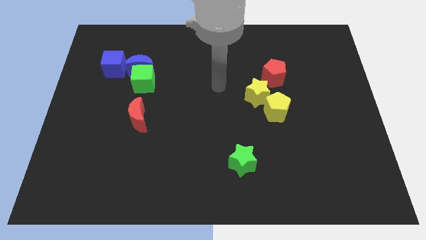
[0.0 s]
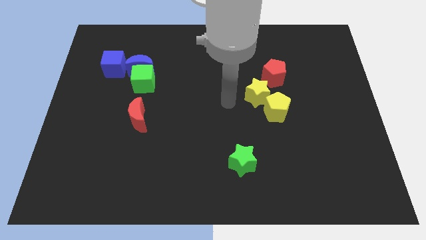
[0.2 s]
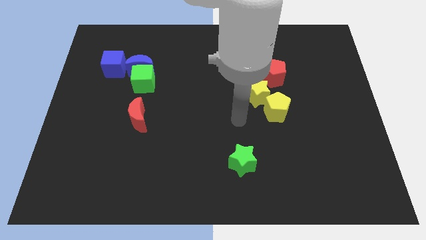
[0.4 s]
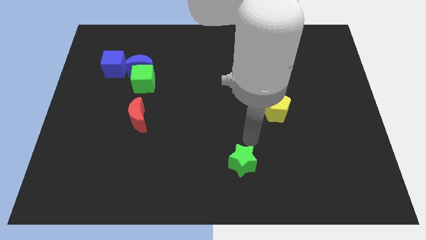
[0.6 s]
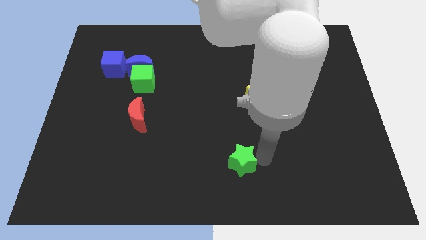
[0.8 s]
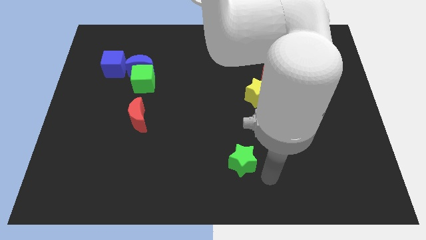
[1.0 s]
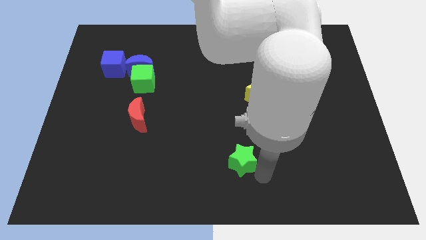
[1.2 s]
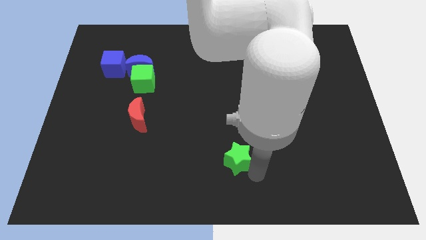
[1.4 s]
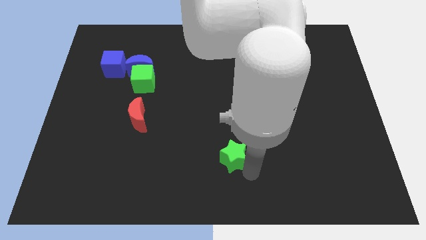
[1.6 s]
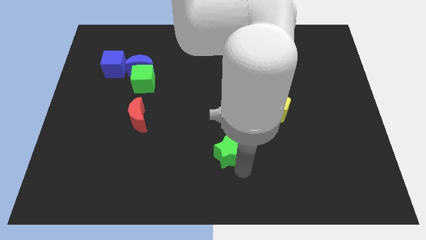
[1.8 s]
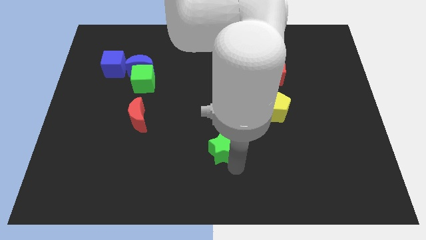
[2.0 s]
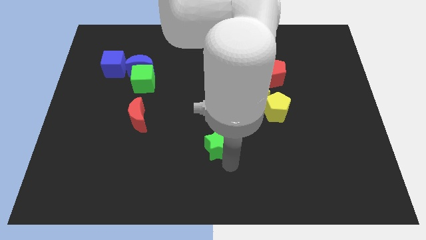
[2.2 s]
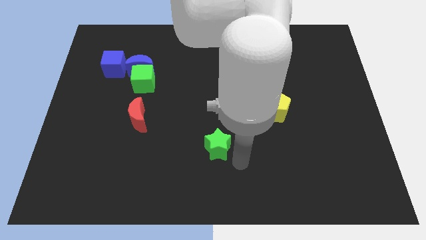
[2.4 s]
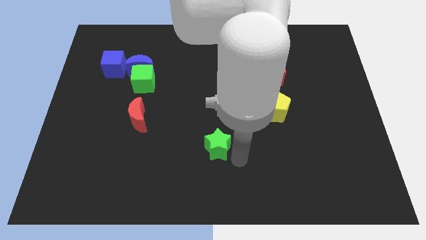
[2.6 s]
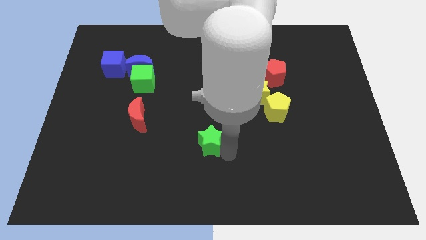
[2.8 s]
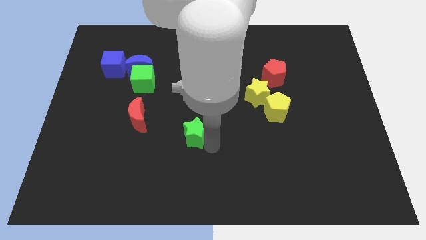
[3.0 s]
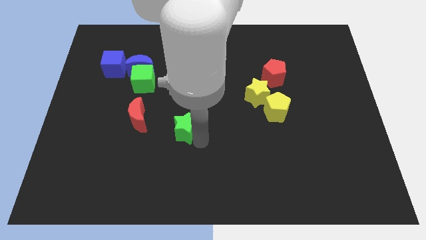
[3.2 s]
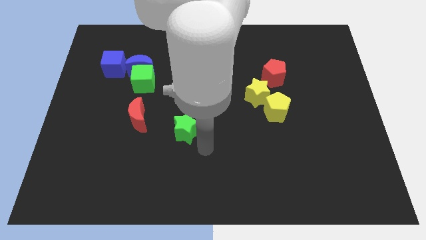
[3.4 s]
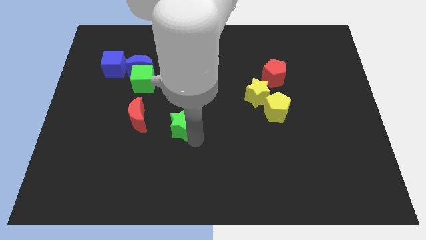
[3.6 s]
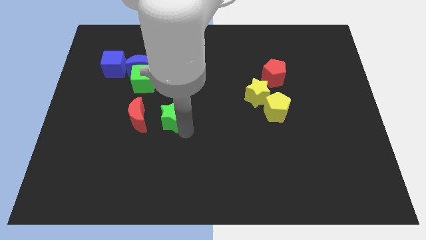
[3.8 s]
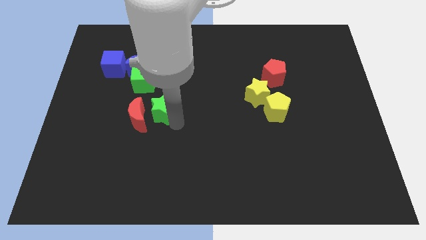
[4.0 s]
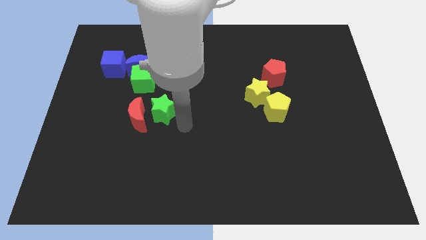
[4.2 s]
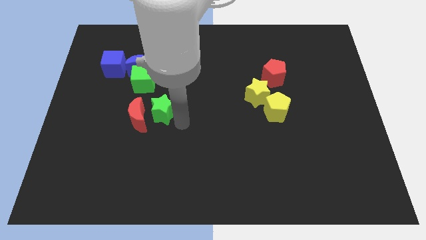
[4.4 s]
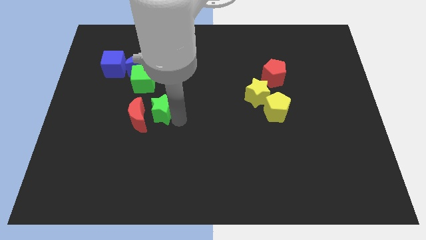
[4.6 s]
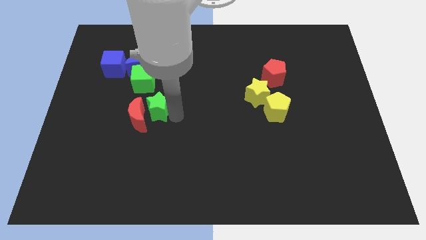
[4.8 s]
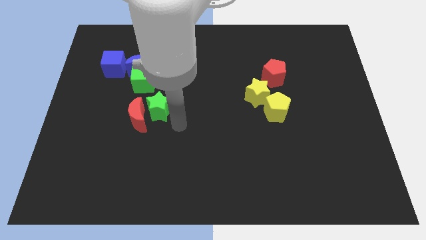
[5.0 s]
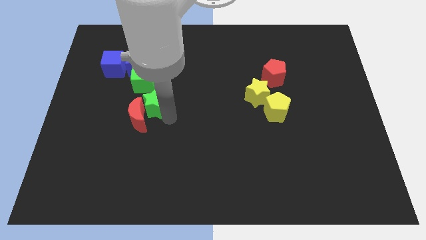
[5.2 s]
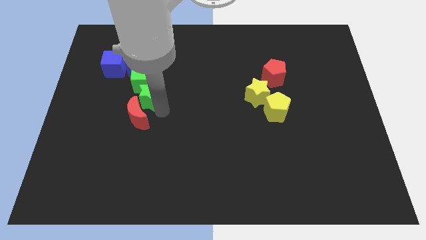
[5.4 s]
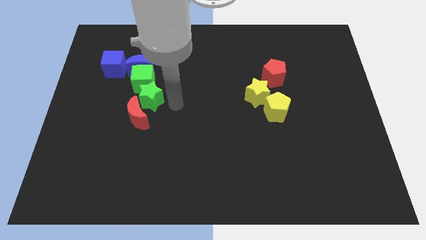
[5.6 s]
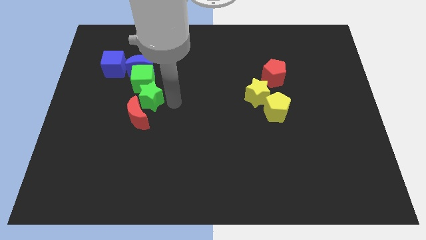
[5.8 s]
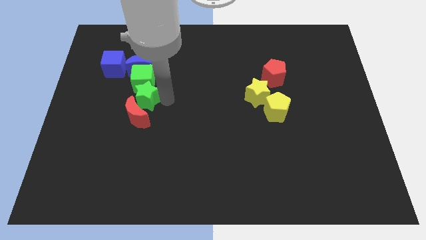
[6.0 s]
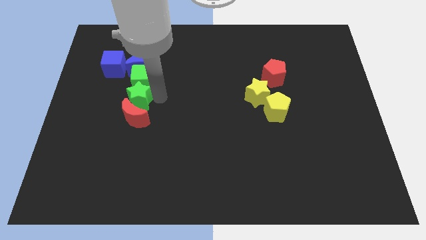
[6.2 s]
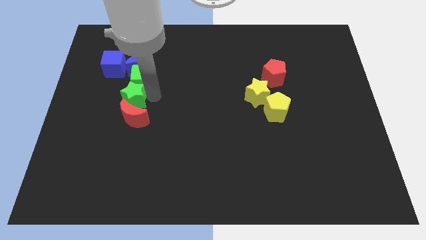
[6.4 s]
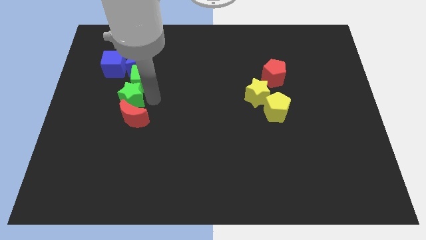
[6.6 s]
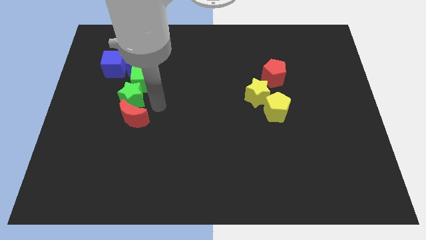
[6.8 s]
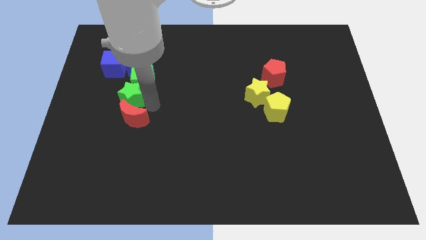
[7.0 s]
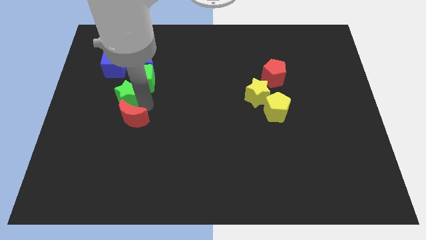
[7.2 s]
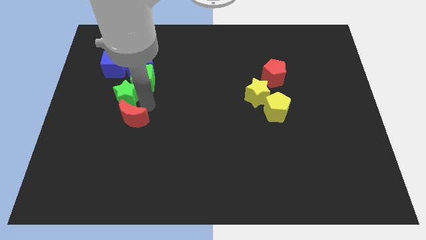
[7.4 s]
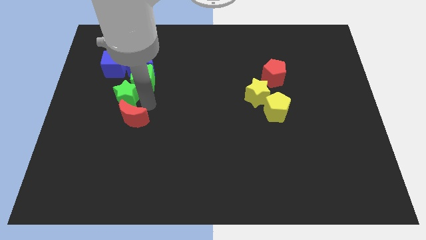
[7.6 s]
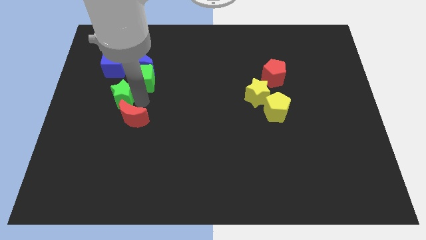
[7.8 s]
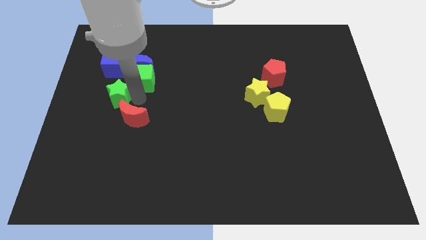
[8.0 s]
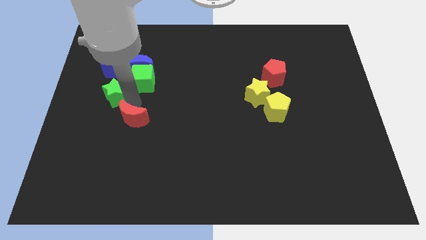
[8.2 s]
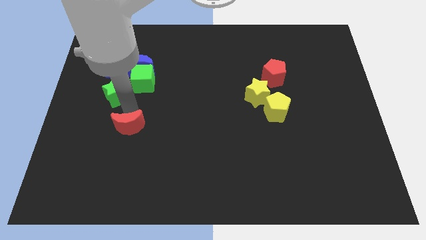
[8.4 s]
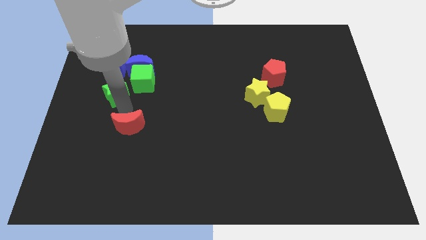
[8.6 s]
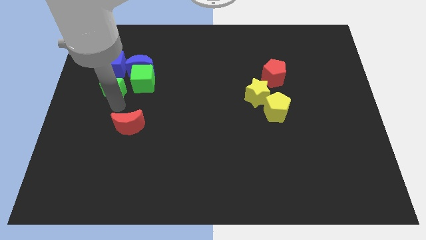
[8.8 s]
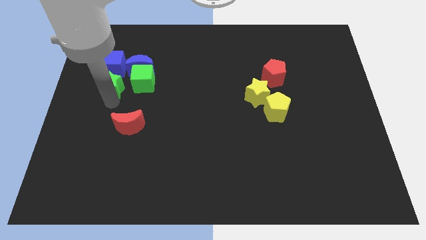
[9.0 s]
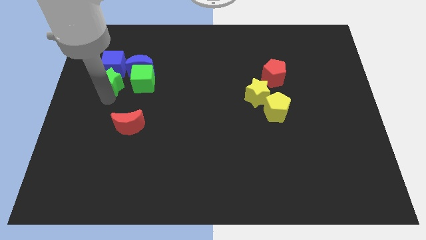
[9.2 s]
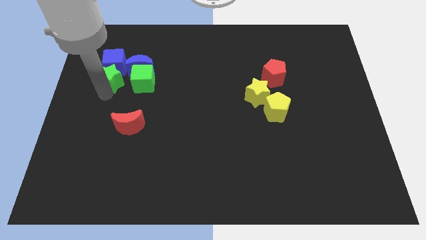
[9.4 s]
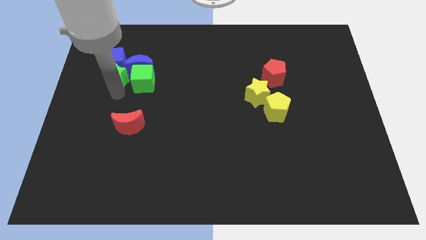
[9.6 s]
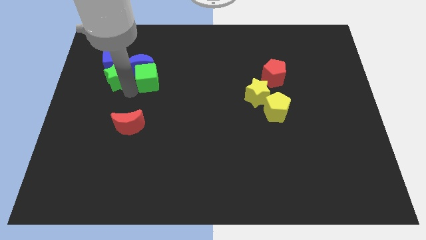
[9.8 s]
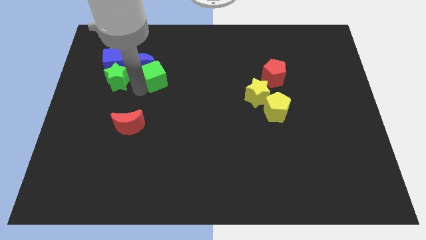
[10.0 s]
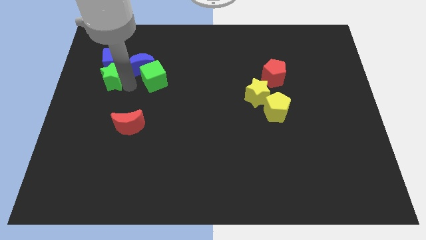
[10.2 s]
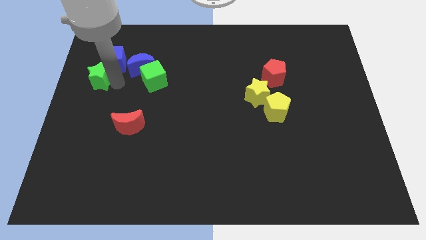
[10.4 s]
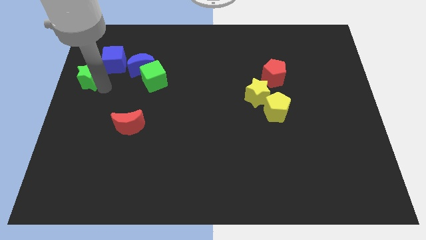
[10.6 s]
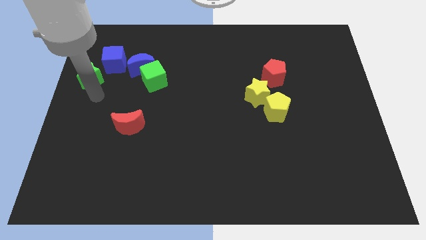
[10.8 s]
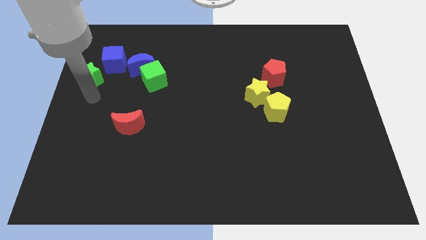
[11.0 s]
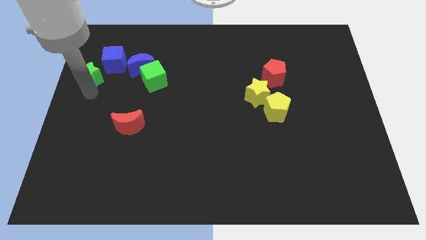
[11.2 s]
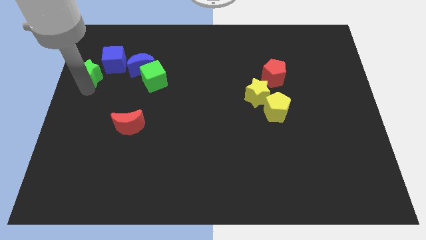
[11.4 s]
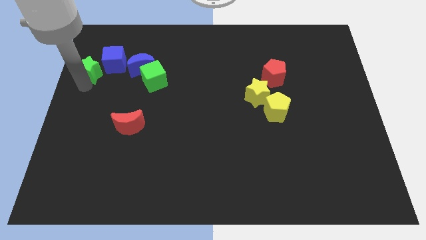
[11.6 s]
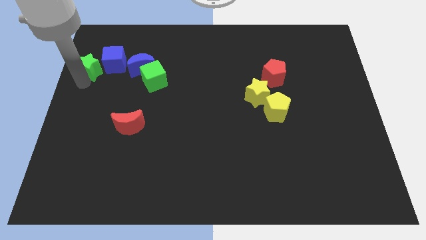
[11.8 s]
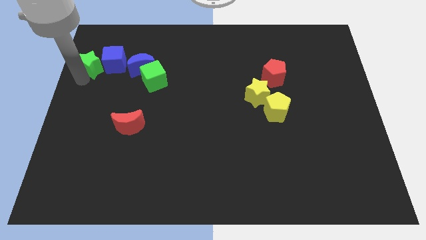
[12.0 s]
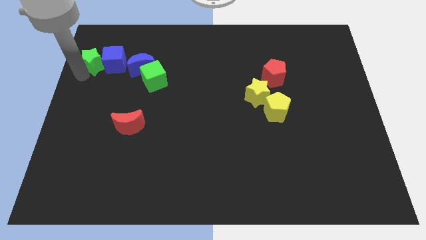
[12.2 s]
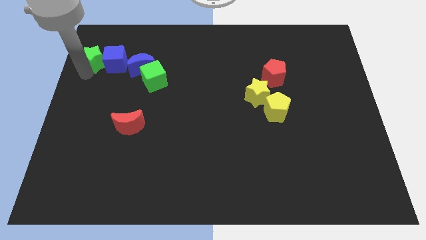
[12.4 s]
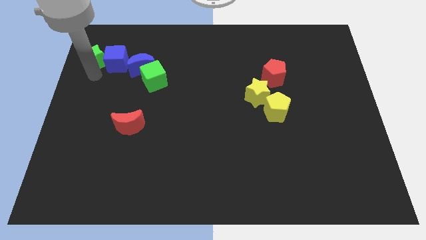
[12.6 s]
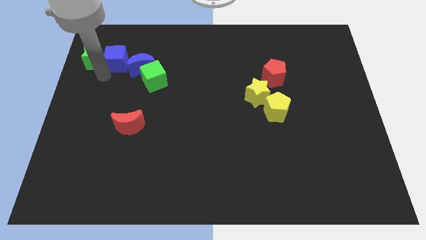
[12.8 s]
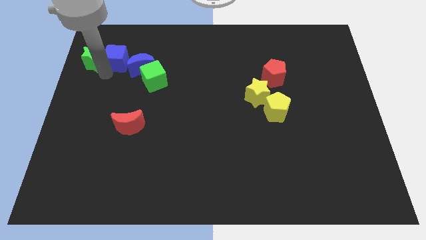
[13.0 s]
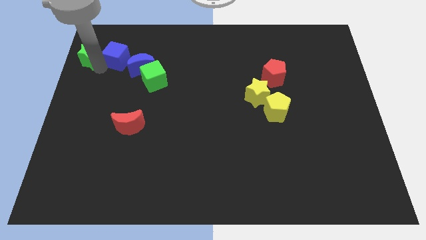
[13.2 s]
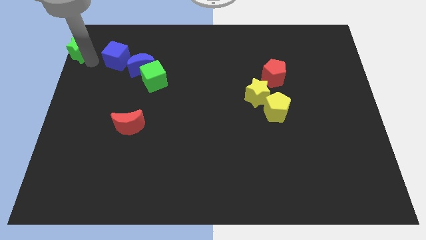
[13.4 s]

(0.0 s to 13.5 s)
slide the green star to the top left of the board
